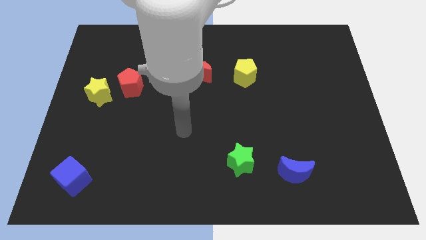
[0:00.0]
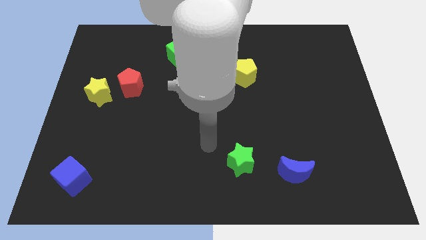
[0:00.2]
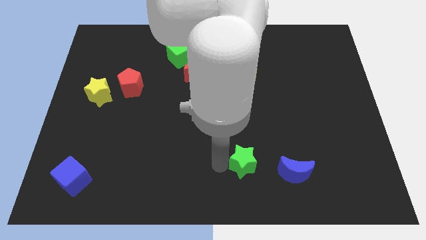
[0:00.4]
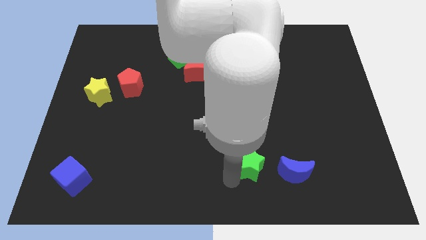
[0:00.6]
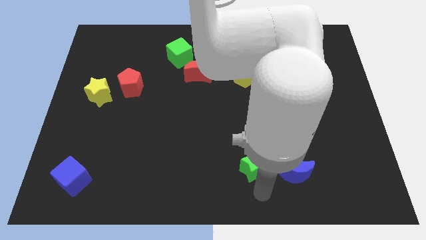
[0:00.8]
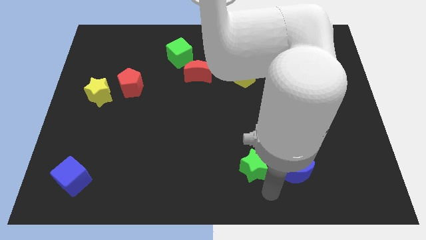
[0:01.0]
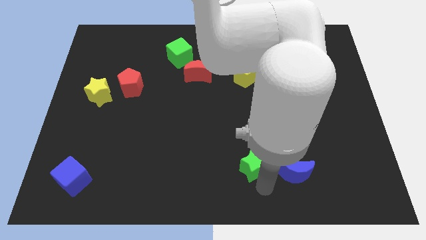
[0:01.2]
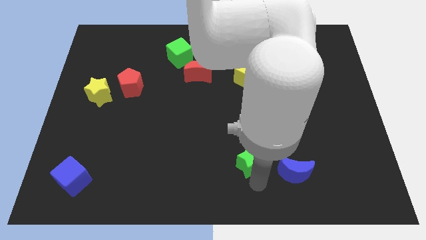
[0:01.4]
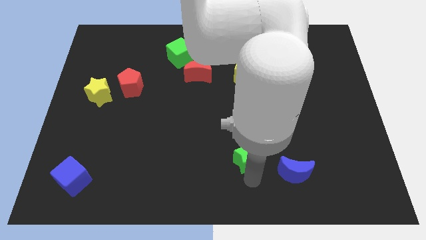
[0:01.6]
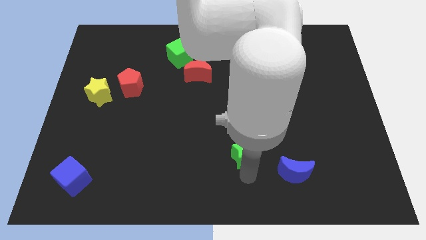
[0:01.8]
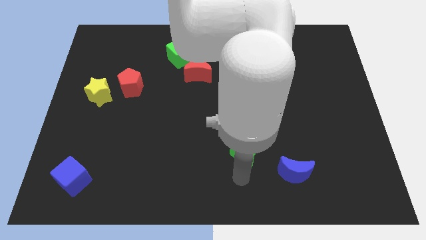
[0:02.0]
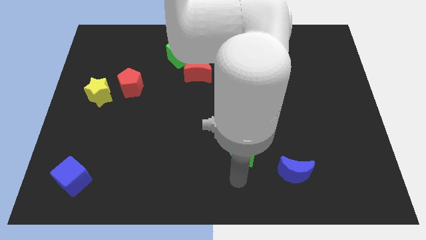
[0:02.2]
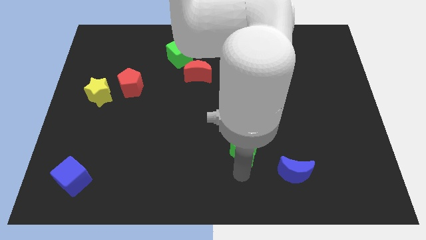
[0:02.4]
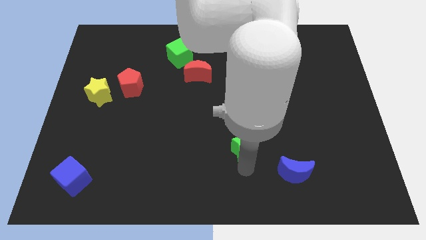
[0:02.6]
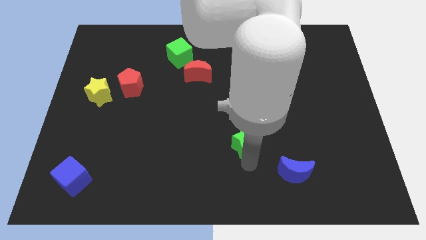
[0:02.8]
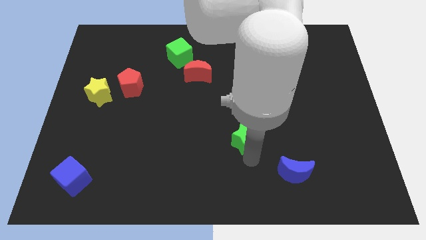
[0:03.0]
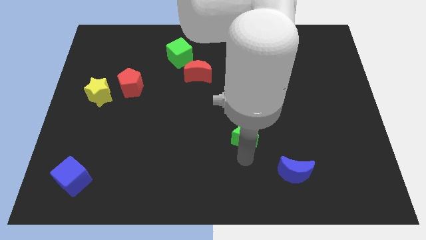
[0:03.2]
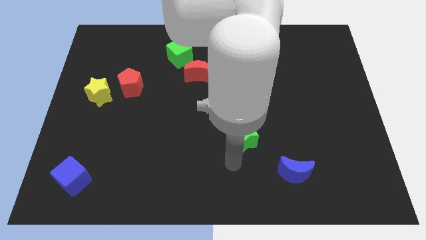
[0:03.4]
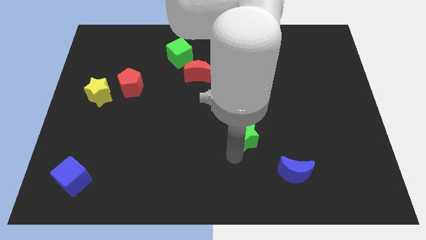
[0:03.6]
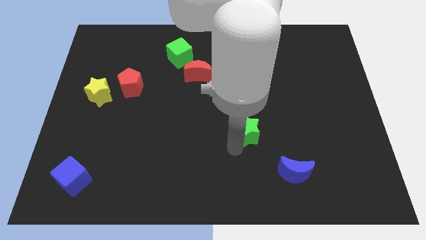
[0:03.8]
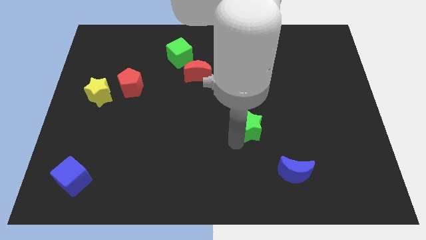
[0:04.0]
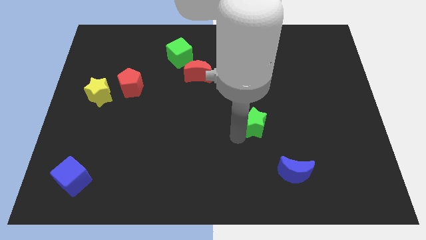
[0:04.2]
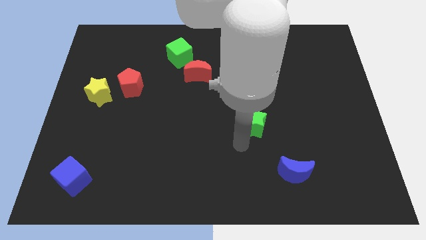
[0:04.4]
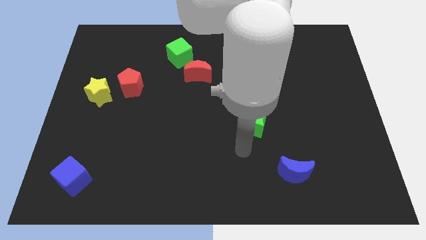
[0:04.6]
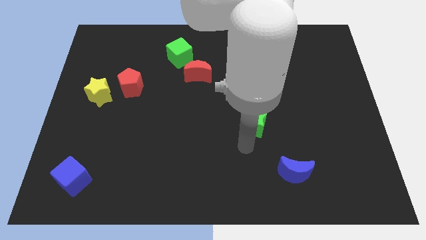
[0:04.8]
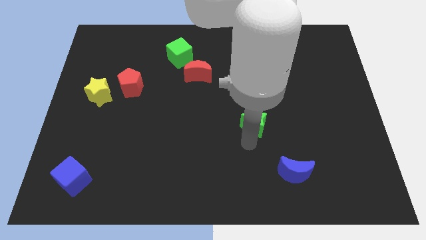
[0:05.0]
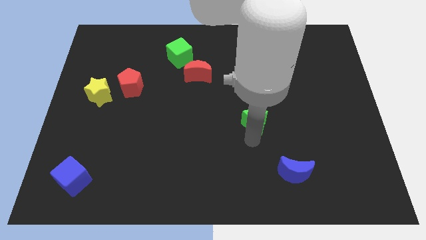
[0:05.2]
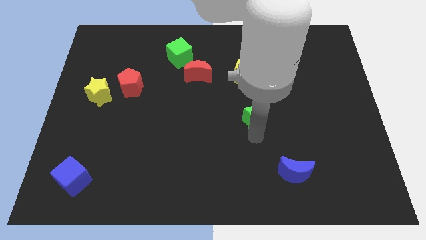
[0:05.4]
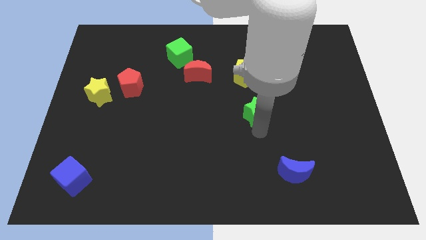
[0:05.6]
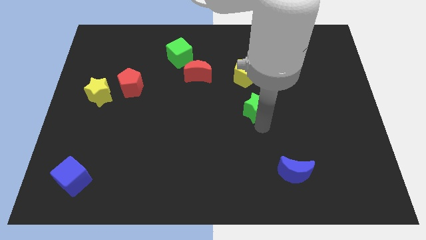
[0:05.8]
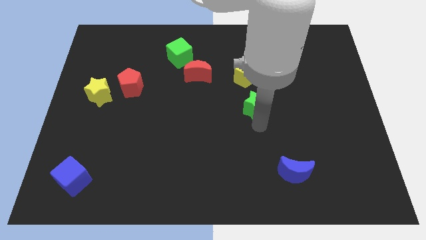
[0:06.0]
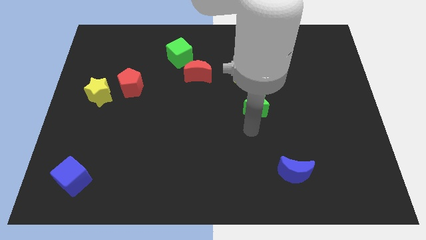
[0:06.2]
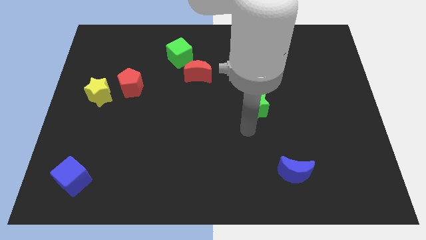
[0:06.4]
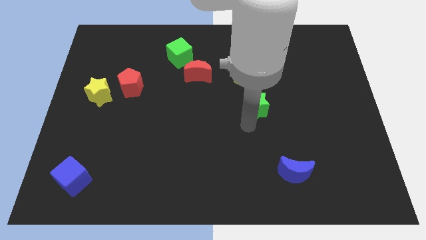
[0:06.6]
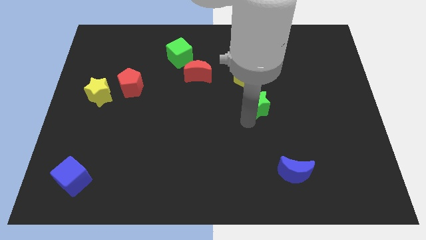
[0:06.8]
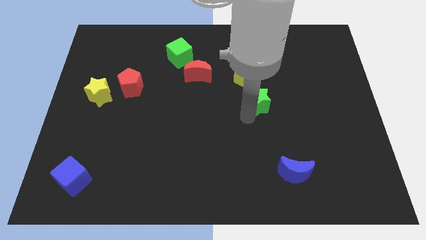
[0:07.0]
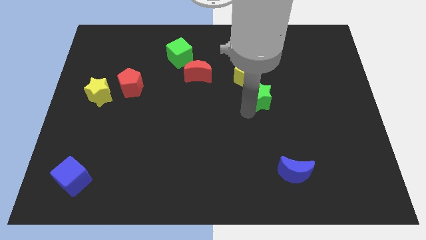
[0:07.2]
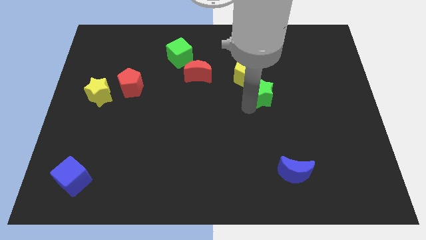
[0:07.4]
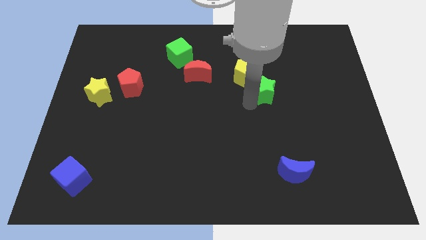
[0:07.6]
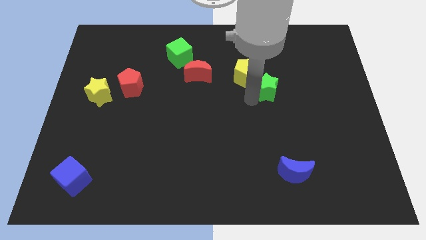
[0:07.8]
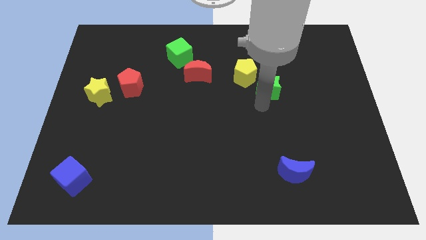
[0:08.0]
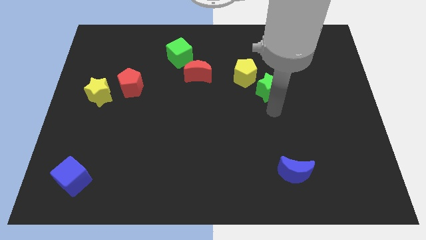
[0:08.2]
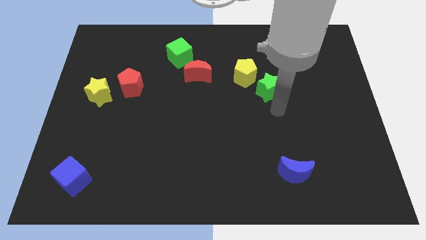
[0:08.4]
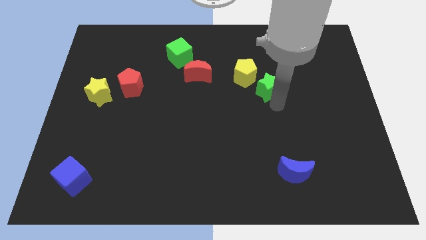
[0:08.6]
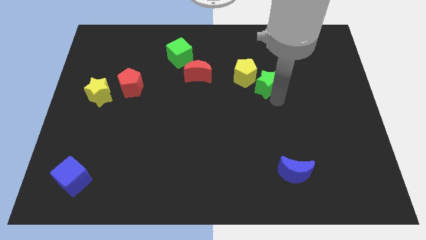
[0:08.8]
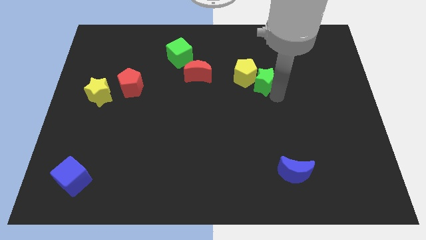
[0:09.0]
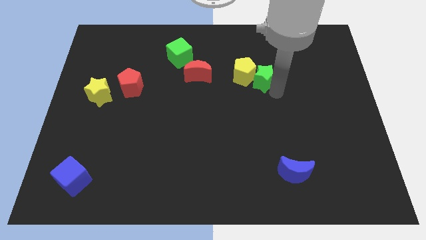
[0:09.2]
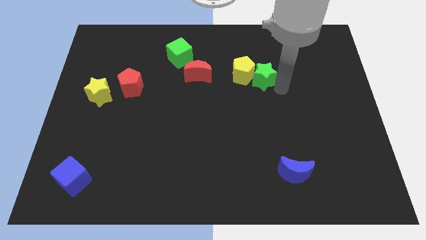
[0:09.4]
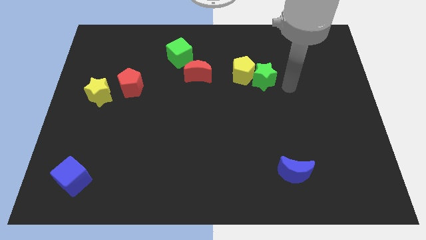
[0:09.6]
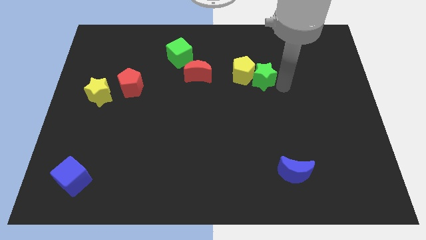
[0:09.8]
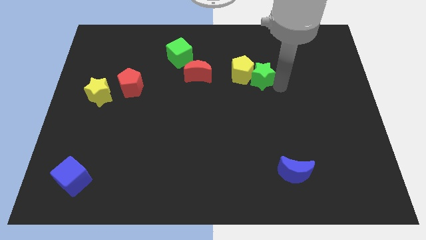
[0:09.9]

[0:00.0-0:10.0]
push the green star to the right of the red moon

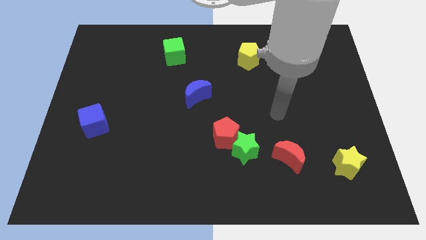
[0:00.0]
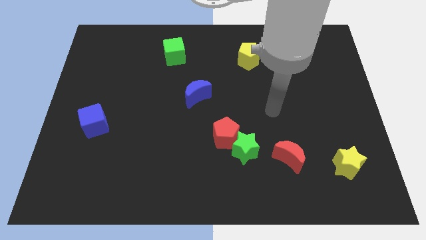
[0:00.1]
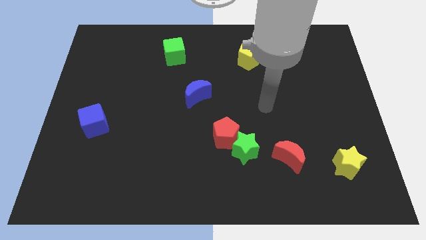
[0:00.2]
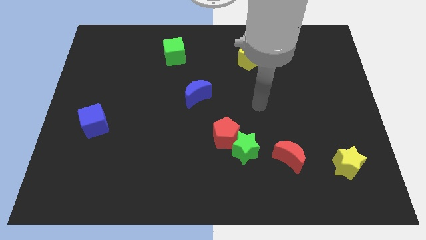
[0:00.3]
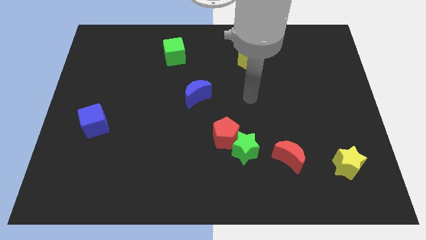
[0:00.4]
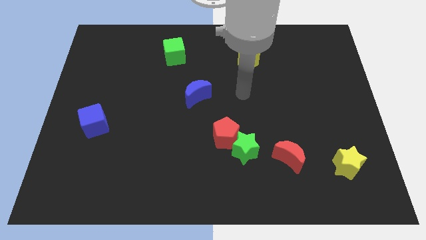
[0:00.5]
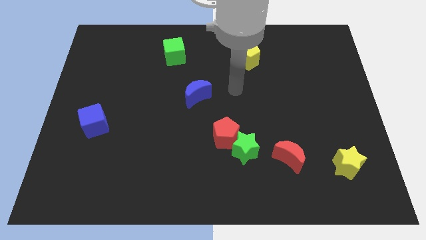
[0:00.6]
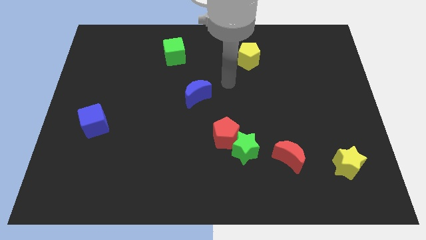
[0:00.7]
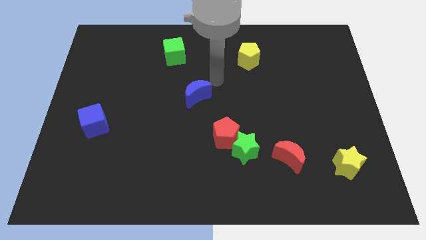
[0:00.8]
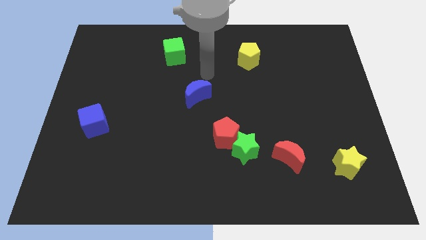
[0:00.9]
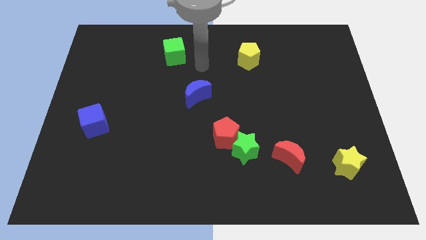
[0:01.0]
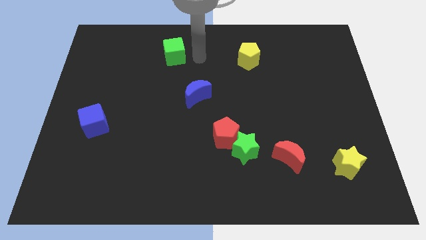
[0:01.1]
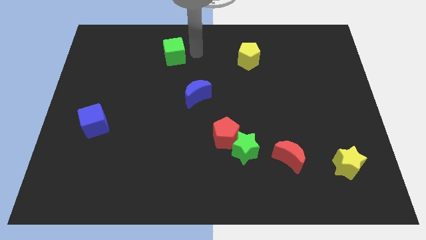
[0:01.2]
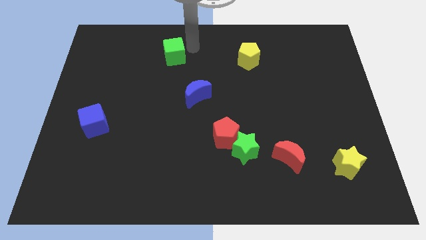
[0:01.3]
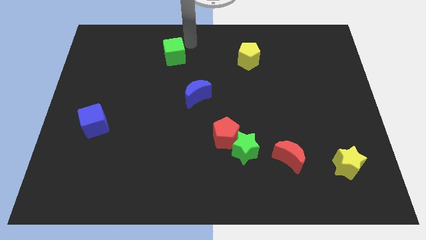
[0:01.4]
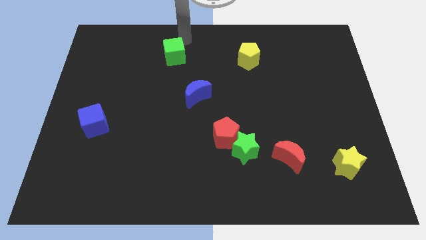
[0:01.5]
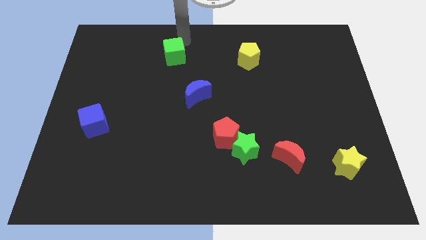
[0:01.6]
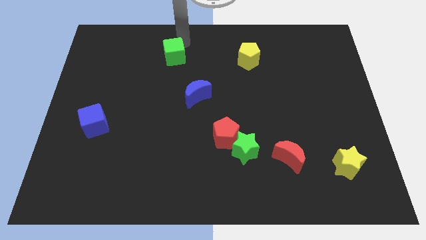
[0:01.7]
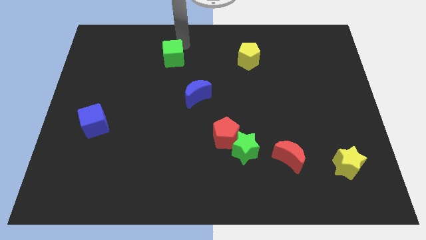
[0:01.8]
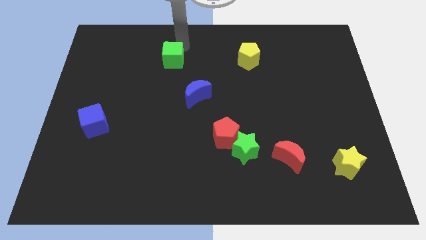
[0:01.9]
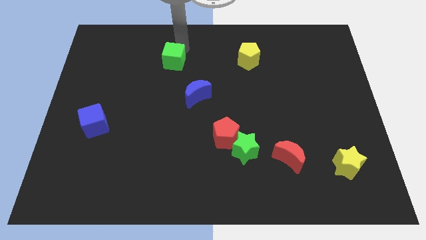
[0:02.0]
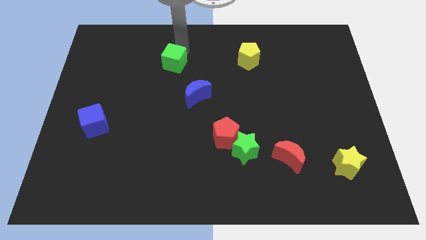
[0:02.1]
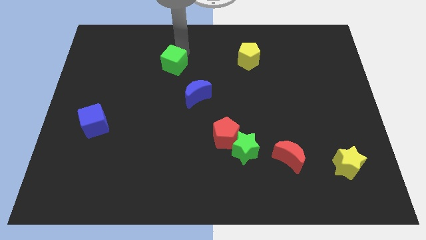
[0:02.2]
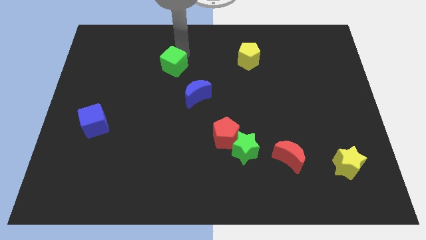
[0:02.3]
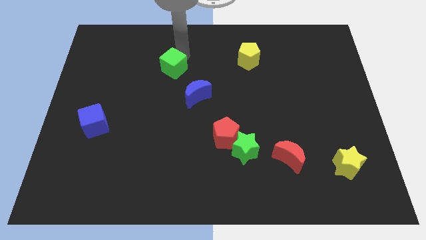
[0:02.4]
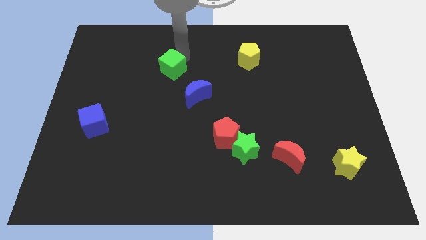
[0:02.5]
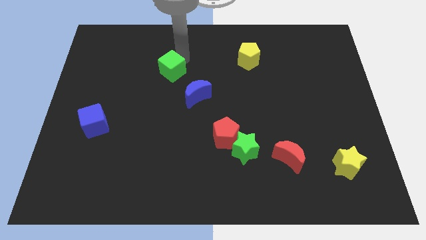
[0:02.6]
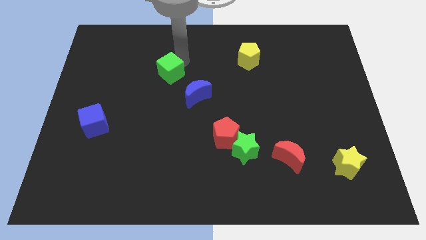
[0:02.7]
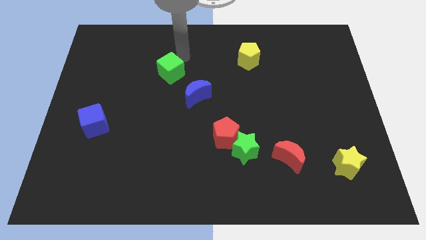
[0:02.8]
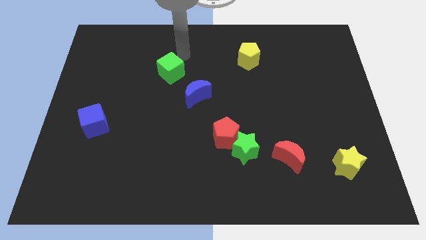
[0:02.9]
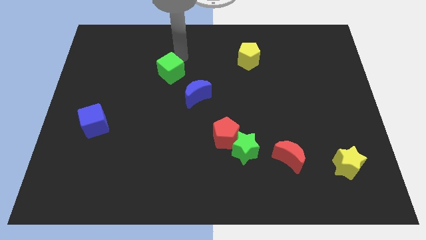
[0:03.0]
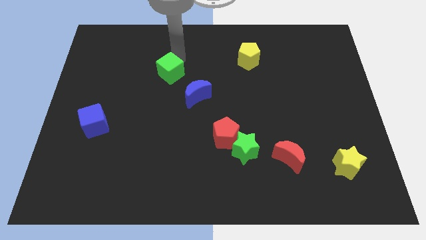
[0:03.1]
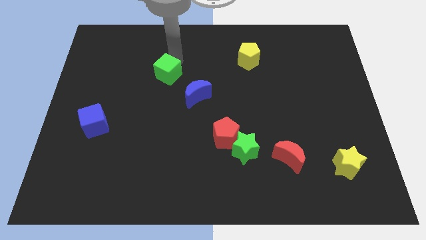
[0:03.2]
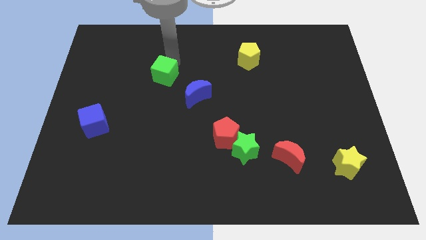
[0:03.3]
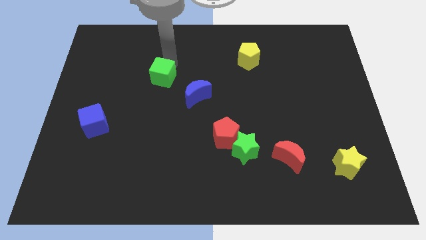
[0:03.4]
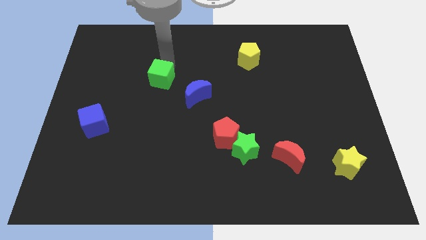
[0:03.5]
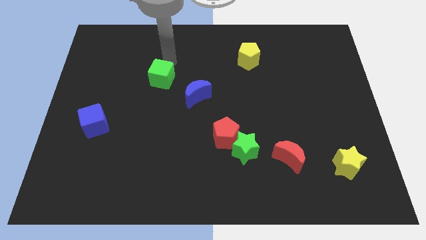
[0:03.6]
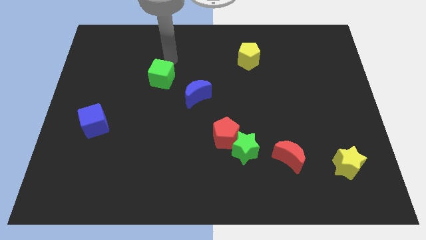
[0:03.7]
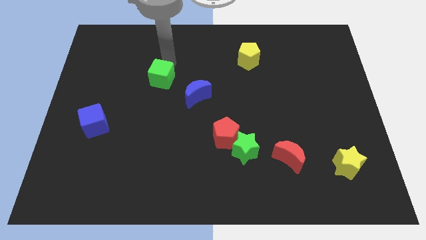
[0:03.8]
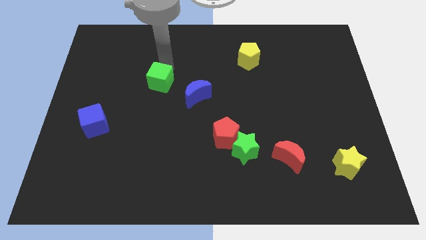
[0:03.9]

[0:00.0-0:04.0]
push the green cube to the left of the blue moon
